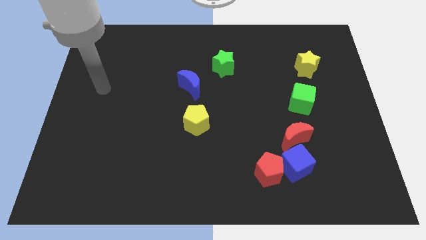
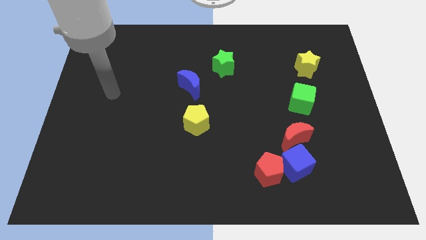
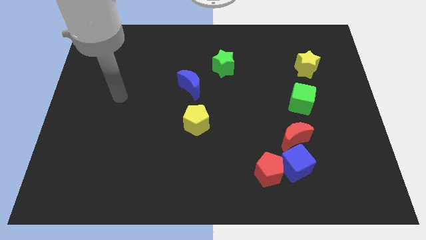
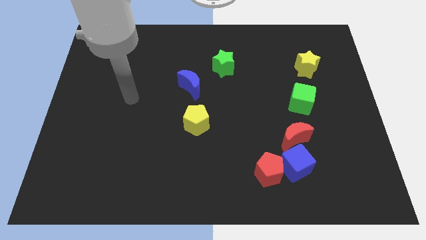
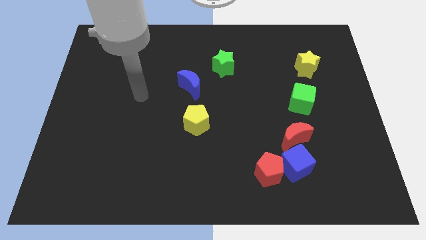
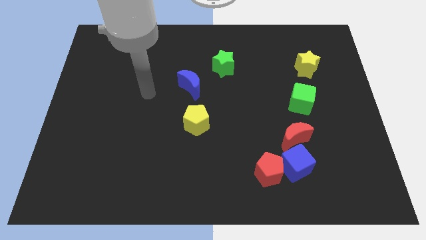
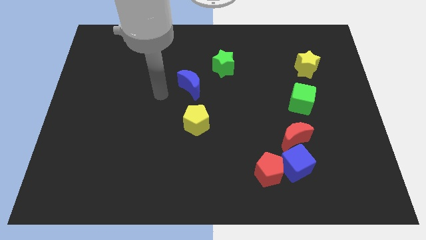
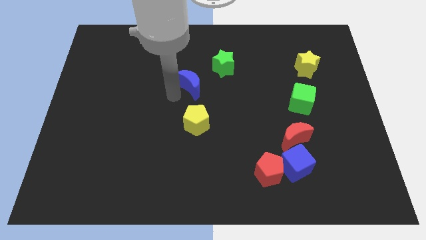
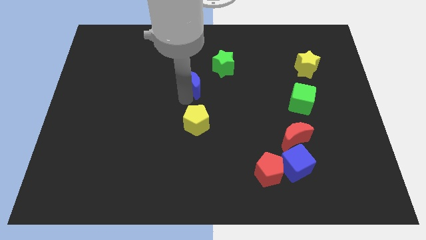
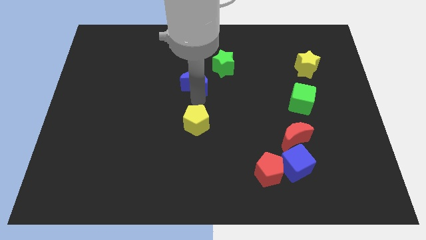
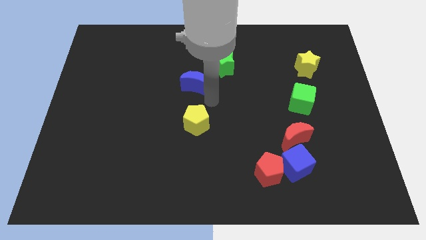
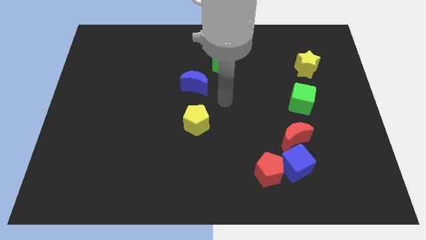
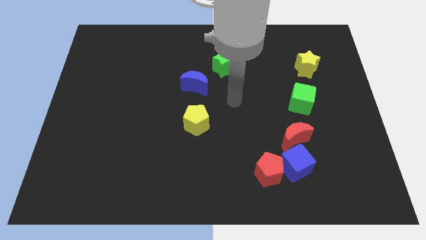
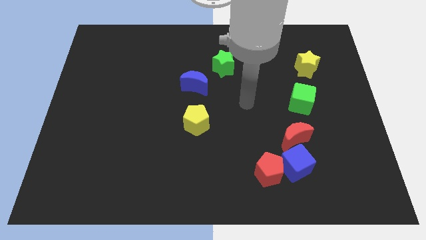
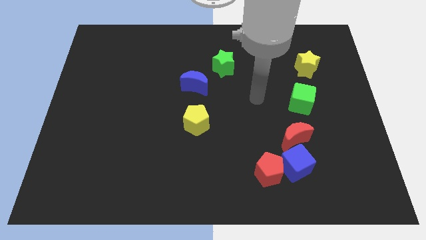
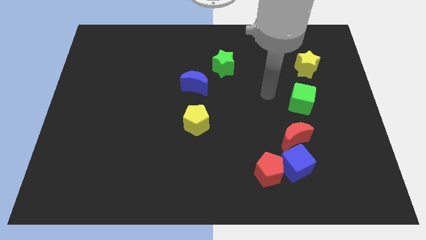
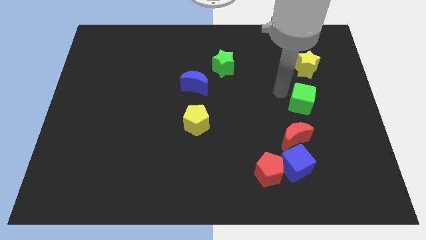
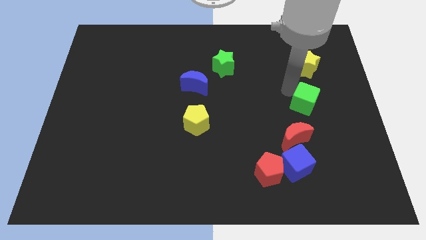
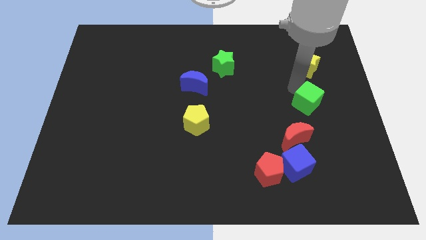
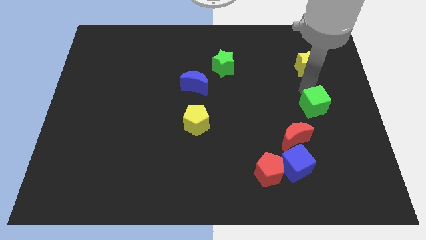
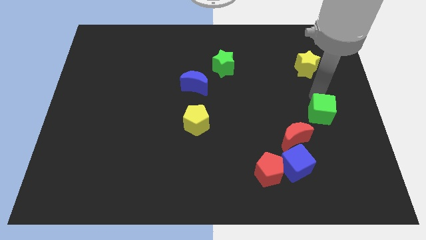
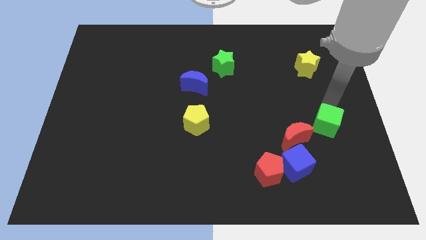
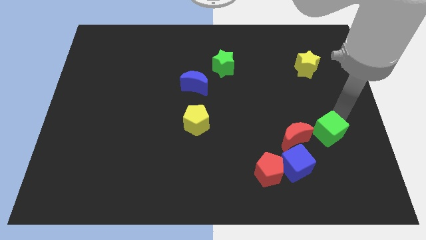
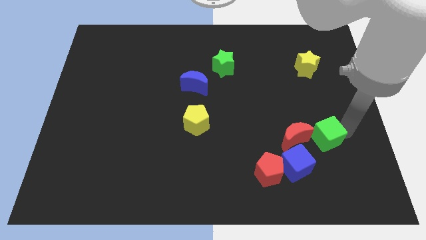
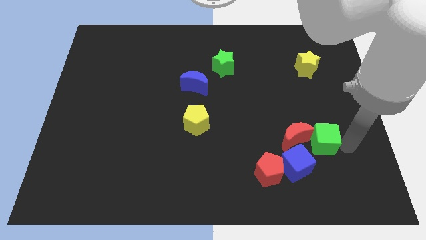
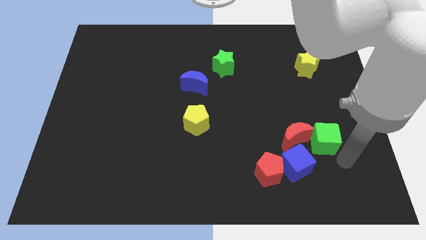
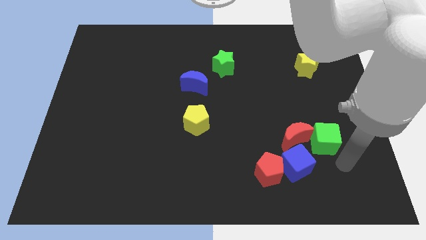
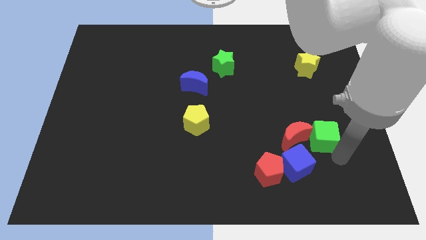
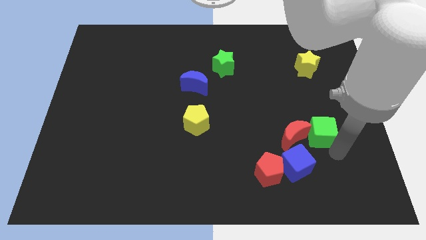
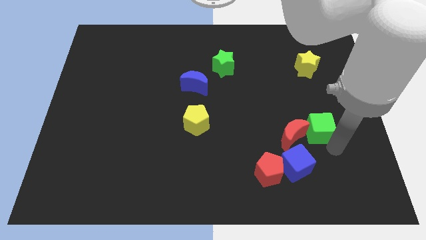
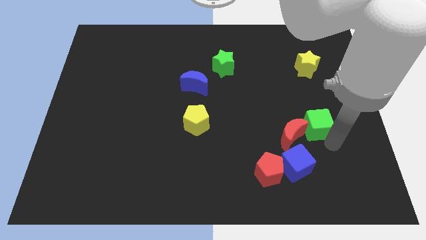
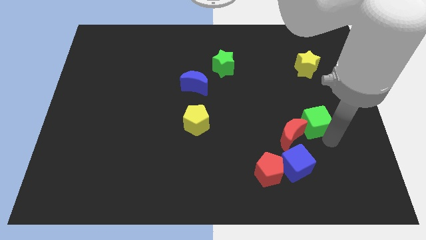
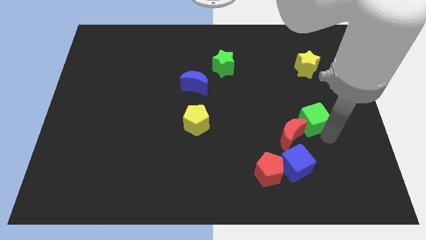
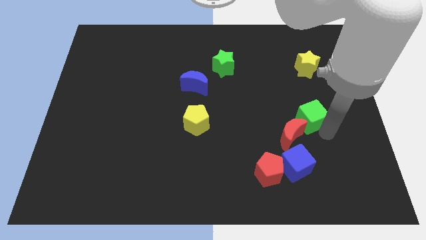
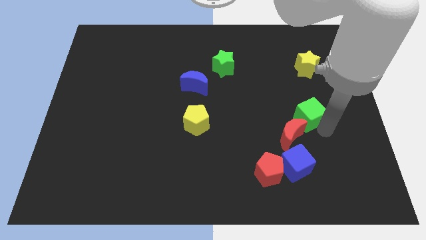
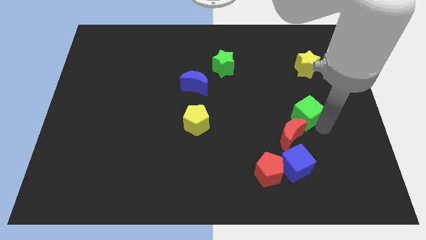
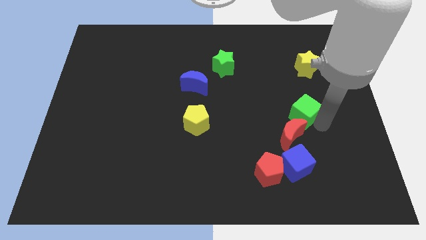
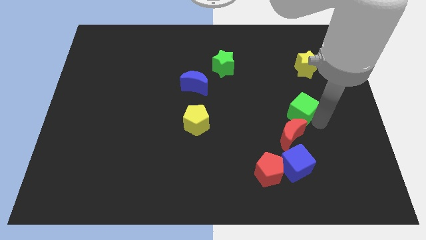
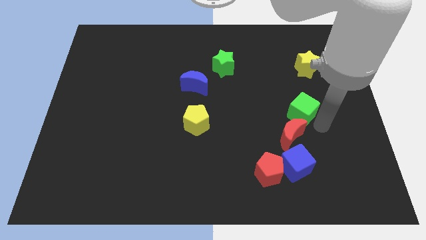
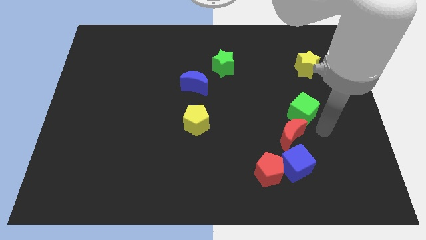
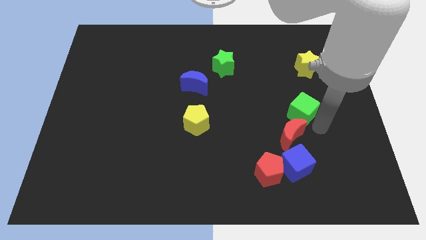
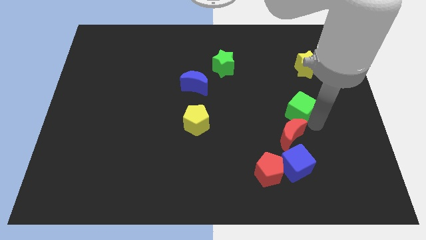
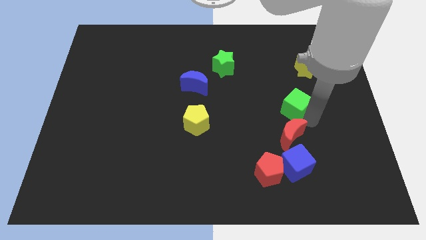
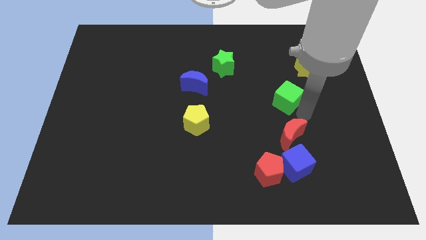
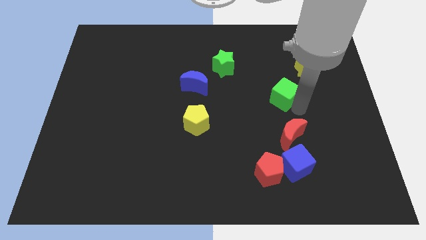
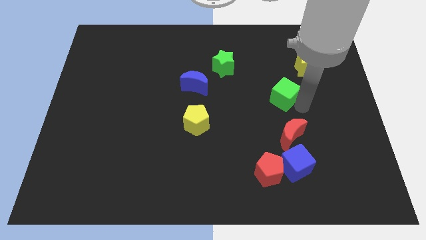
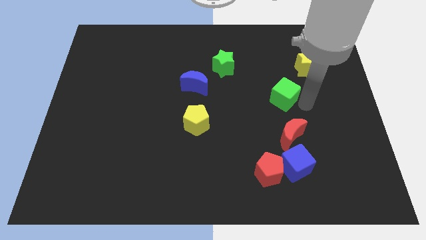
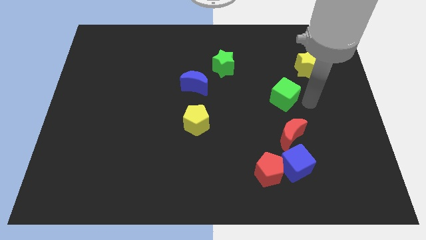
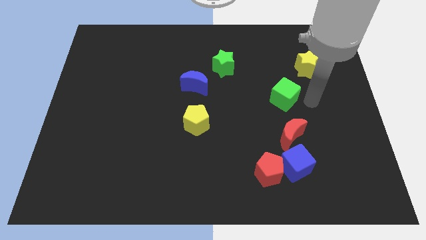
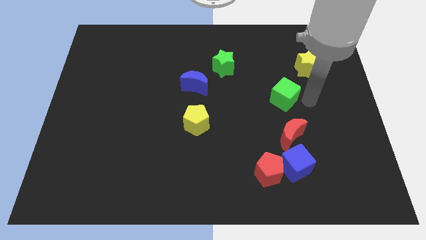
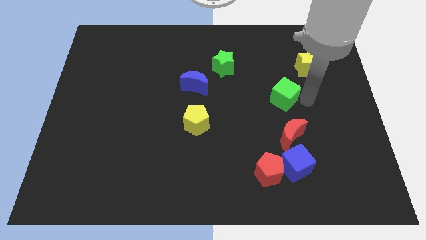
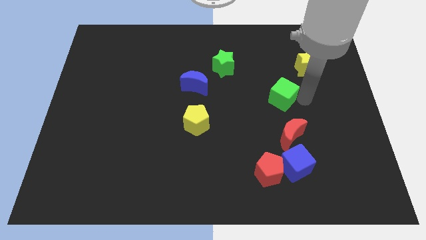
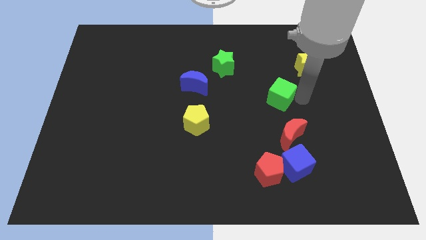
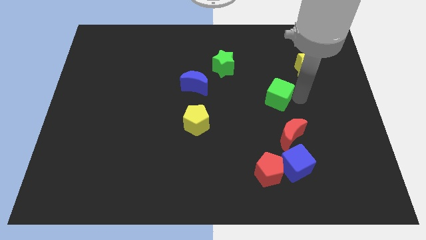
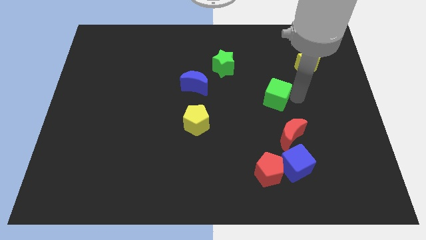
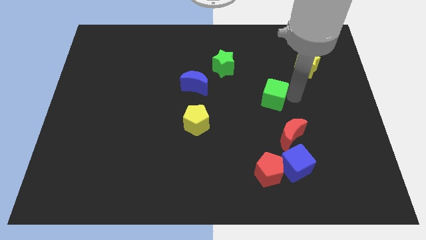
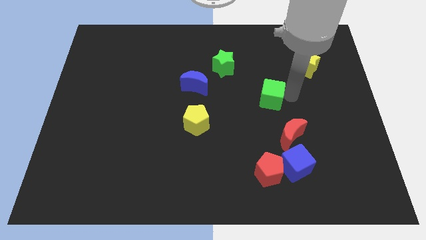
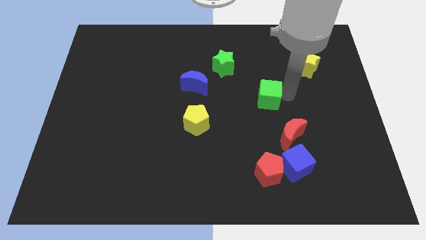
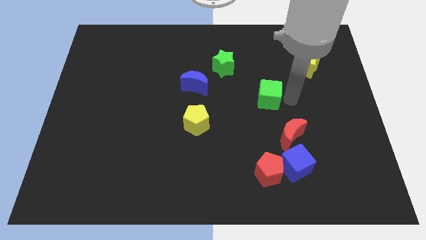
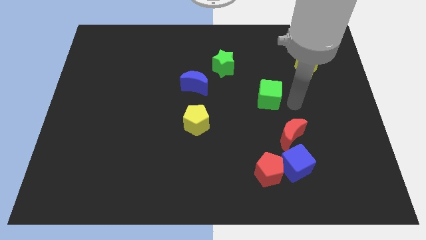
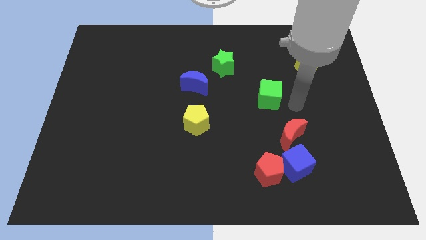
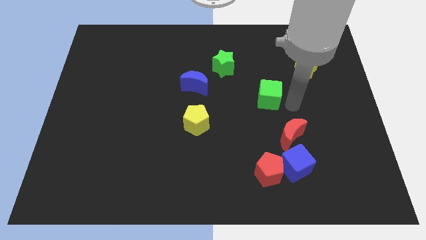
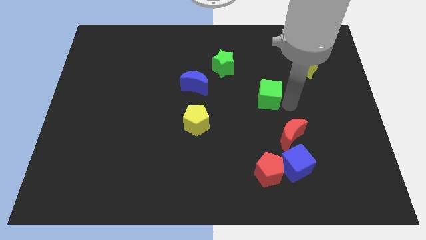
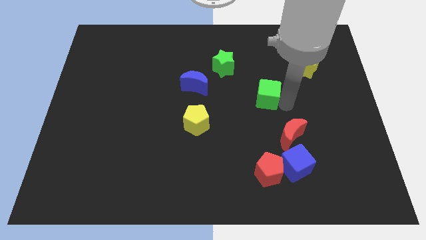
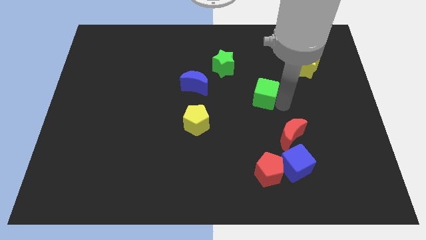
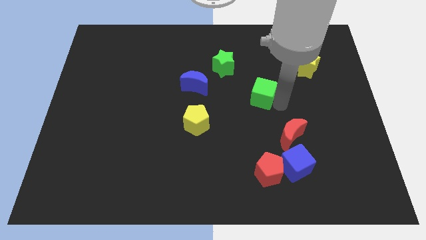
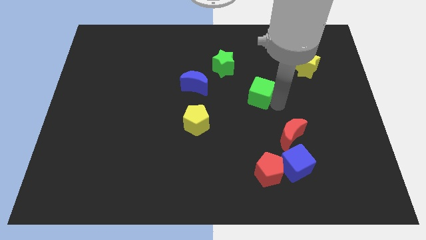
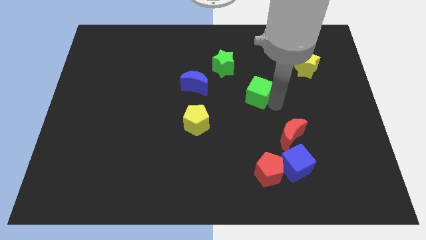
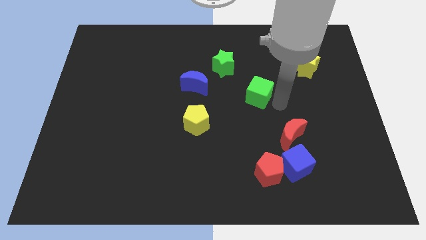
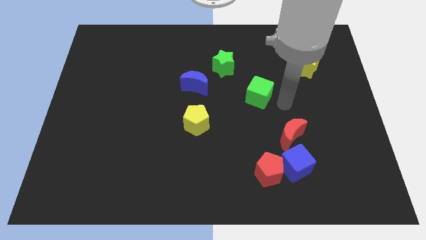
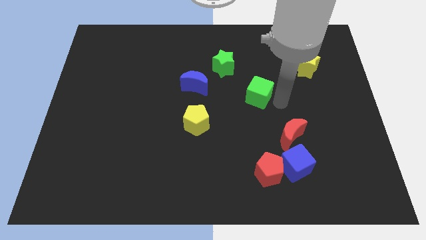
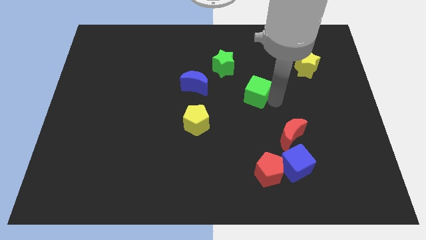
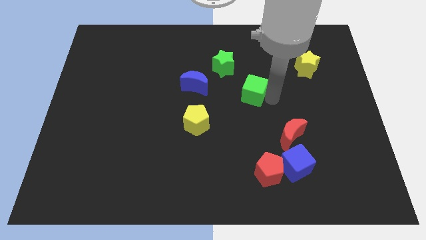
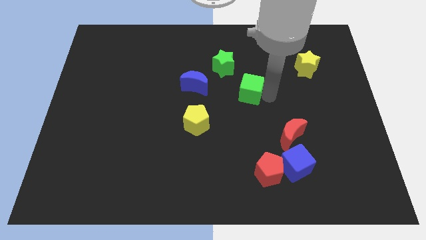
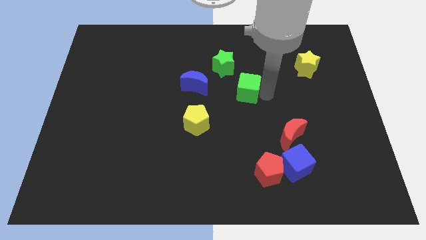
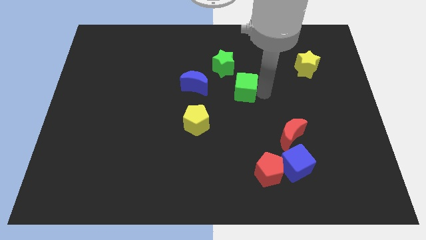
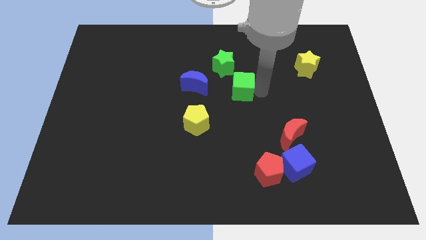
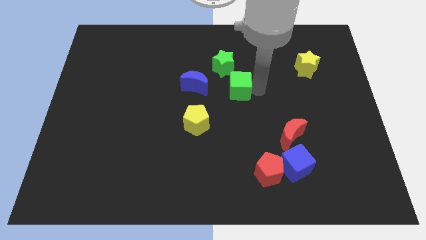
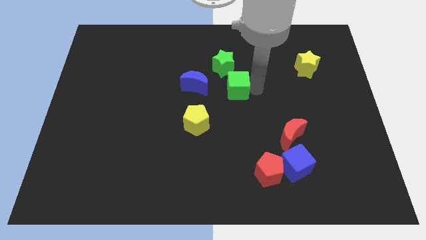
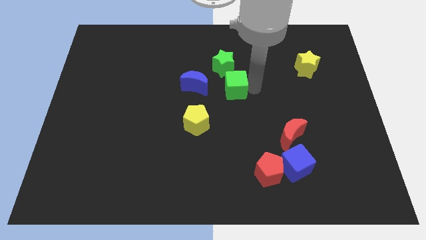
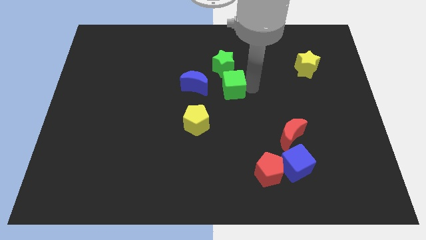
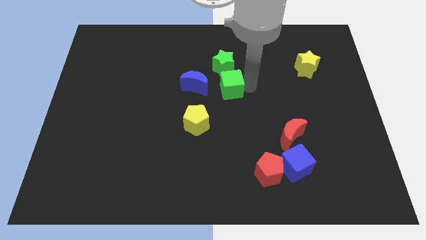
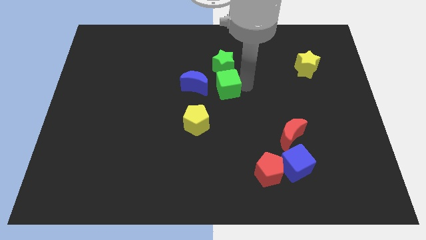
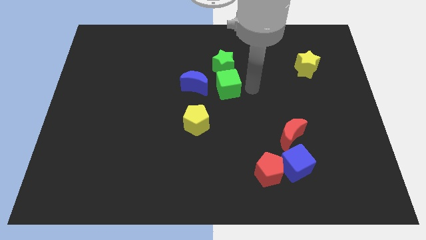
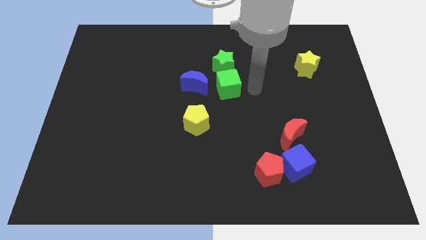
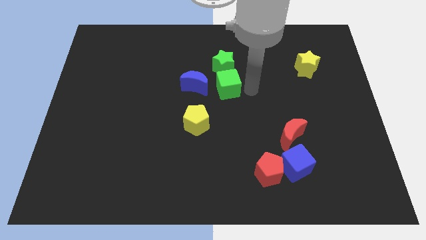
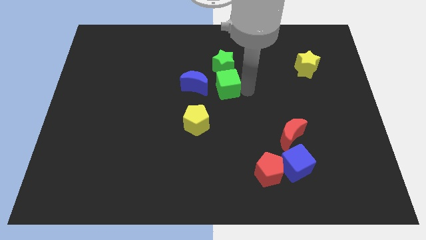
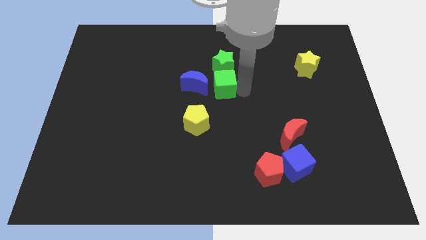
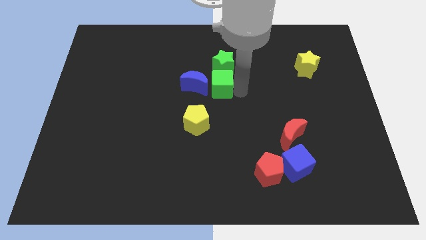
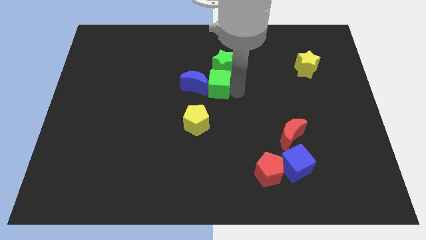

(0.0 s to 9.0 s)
push the green cube towards the blue moon
